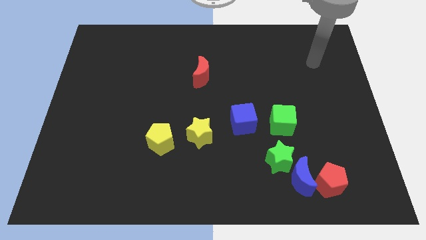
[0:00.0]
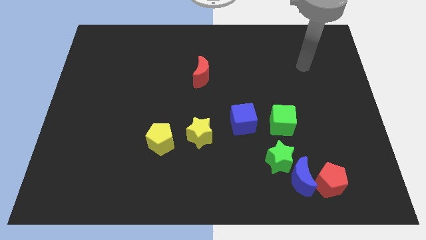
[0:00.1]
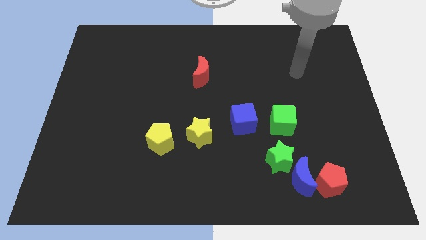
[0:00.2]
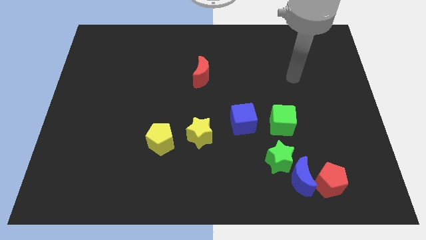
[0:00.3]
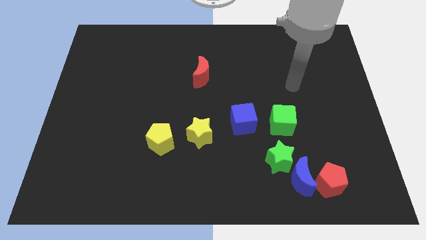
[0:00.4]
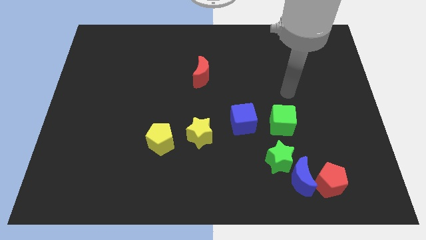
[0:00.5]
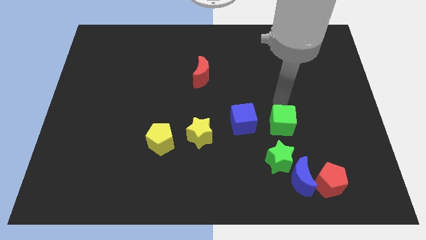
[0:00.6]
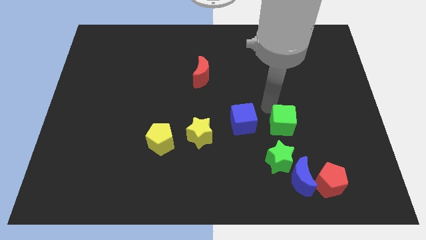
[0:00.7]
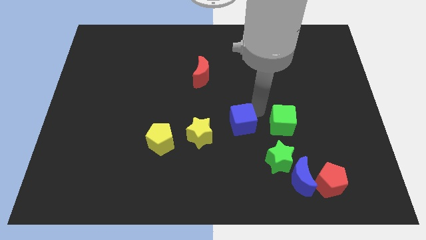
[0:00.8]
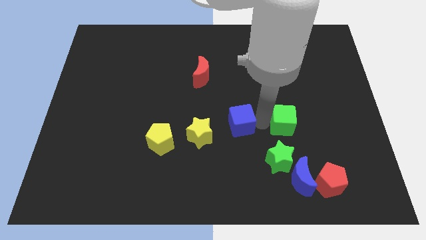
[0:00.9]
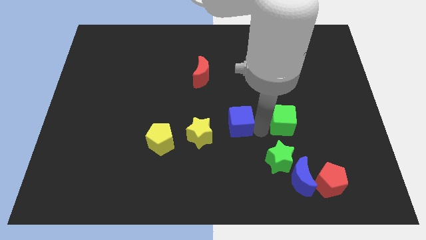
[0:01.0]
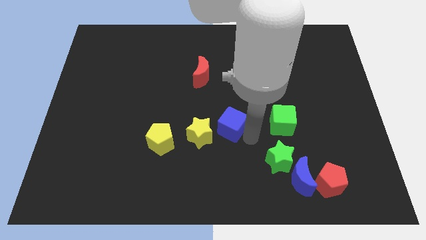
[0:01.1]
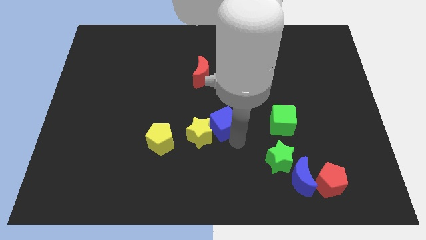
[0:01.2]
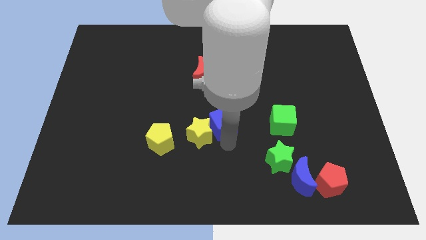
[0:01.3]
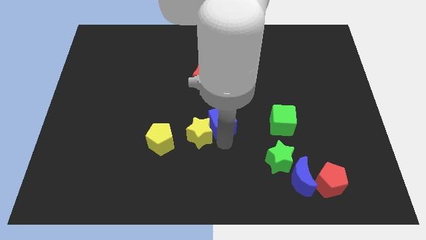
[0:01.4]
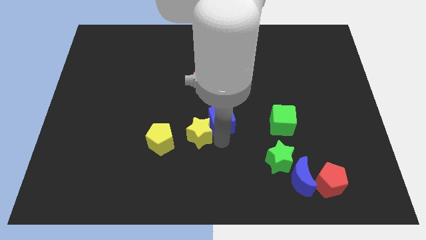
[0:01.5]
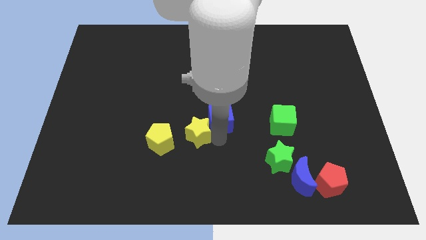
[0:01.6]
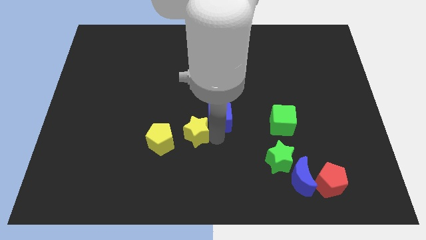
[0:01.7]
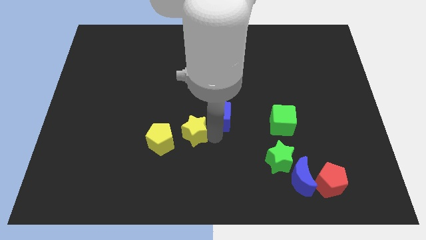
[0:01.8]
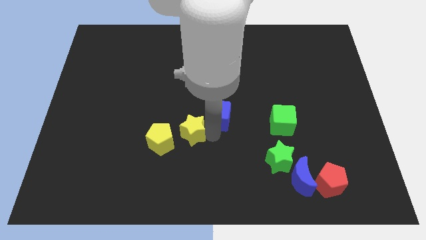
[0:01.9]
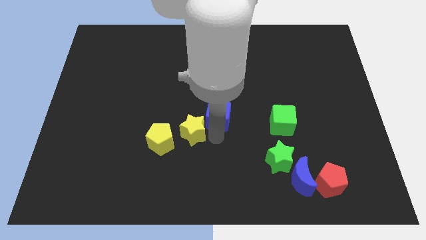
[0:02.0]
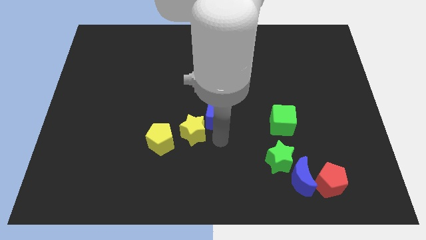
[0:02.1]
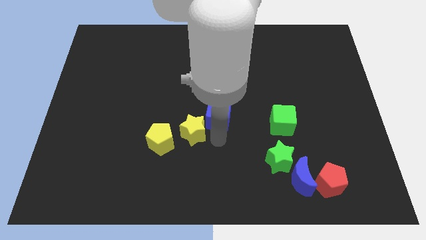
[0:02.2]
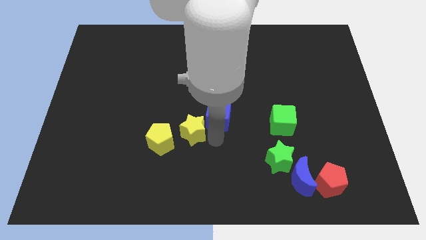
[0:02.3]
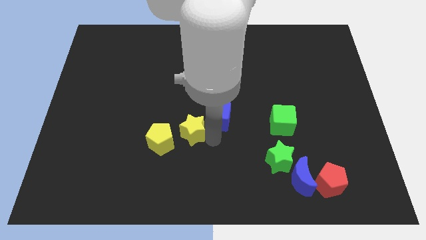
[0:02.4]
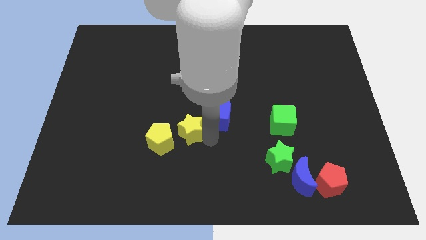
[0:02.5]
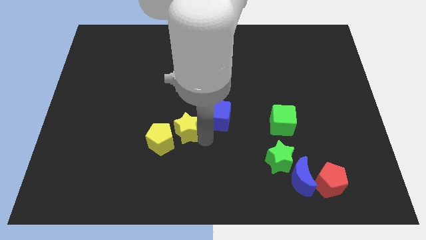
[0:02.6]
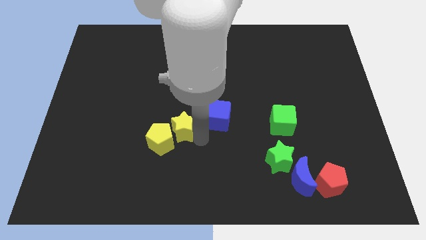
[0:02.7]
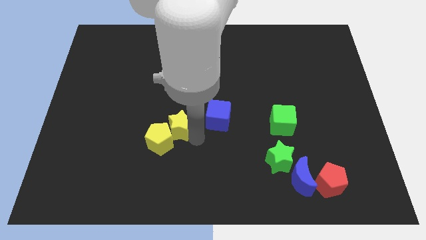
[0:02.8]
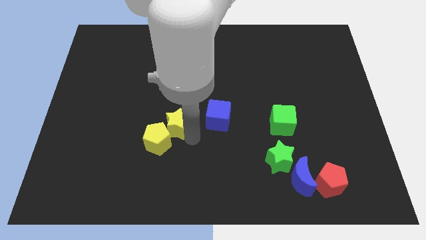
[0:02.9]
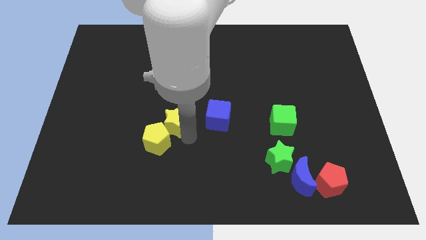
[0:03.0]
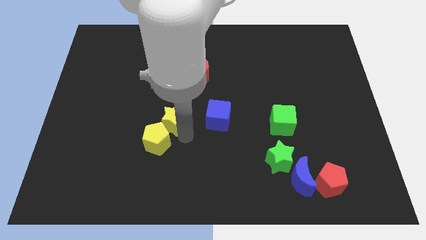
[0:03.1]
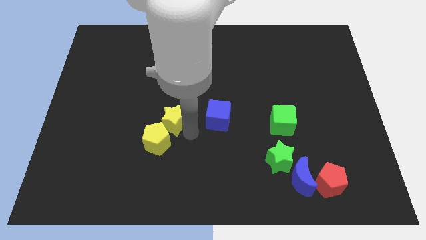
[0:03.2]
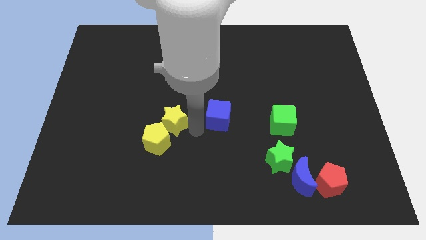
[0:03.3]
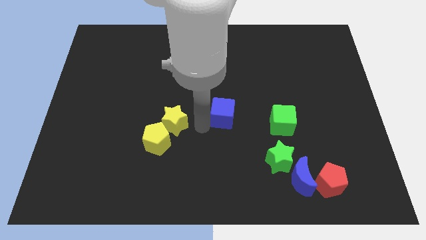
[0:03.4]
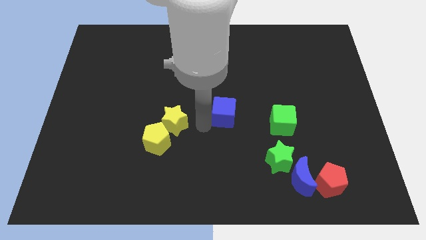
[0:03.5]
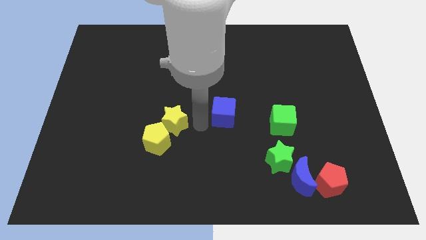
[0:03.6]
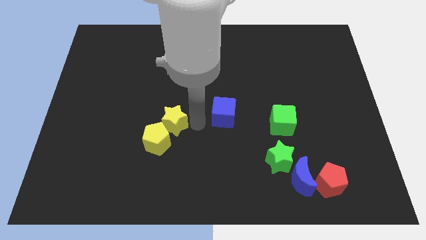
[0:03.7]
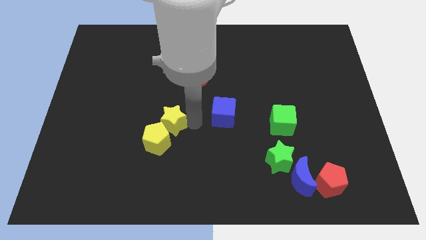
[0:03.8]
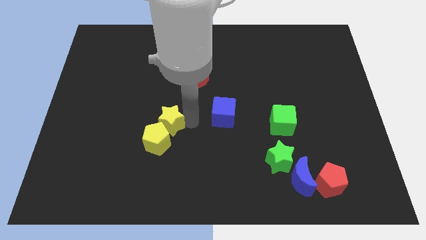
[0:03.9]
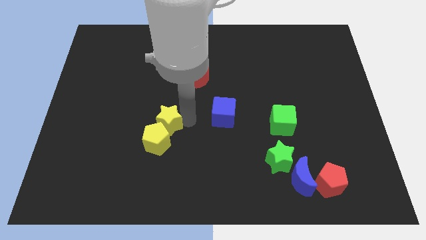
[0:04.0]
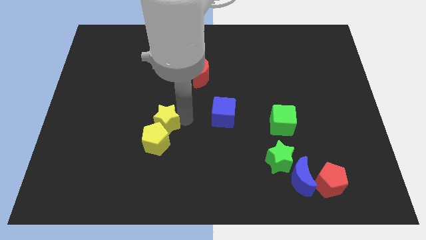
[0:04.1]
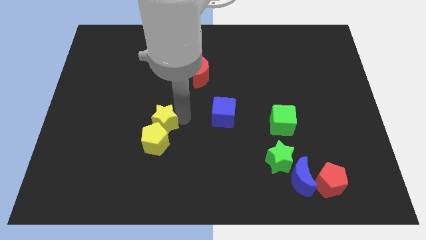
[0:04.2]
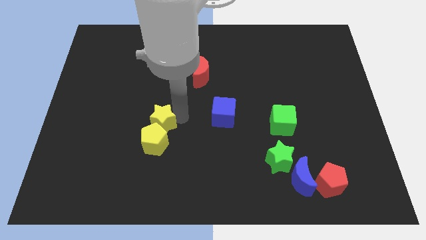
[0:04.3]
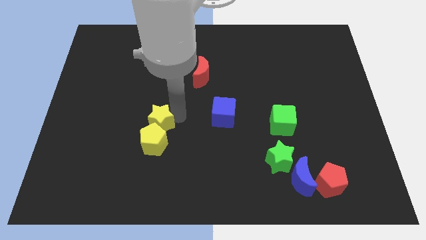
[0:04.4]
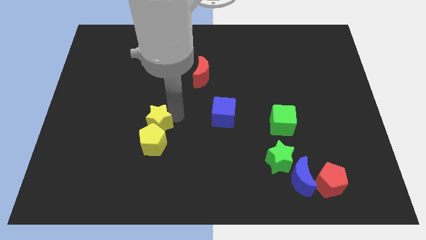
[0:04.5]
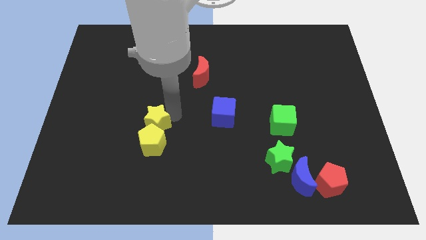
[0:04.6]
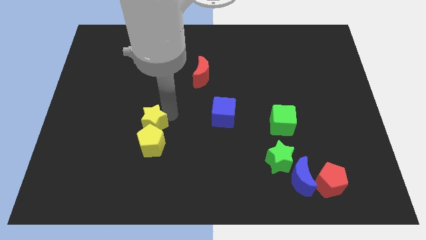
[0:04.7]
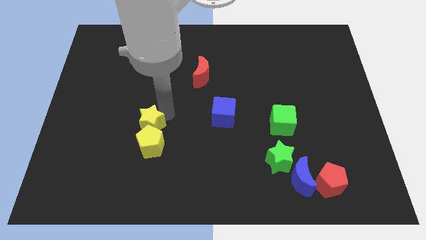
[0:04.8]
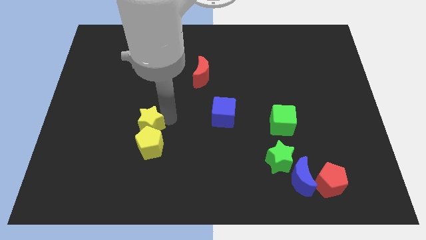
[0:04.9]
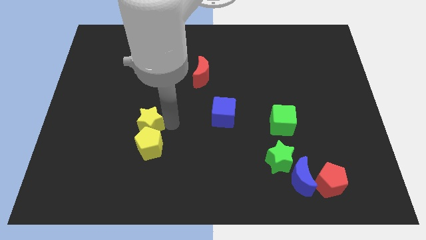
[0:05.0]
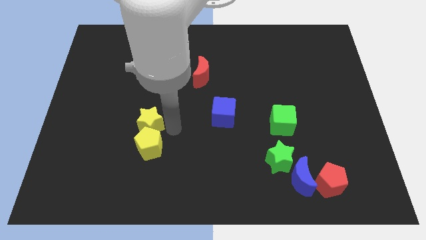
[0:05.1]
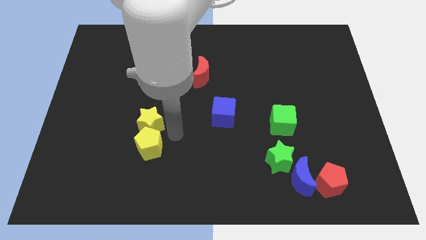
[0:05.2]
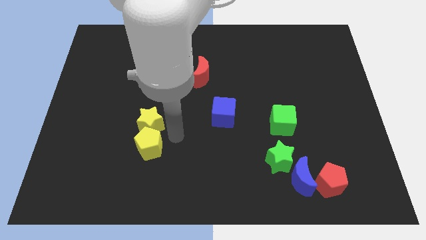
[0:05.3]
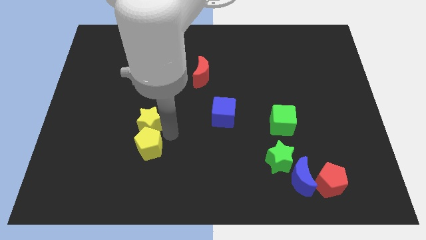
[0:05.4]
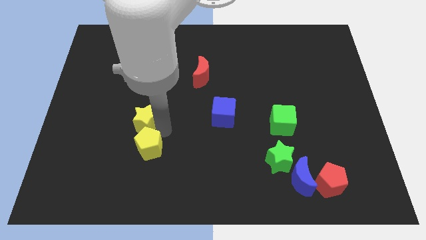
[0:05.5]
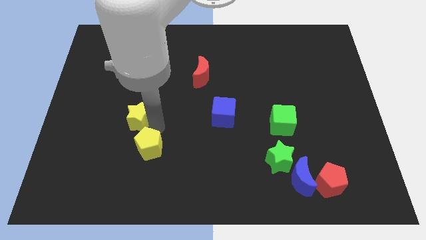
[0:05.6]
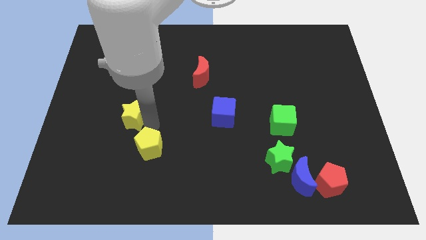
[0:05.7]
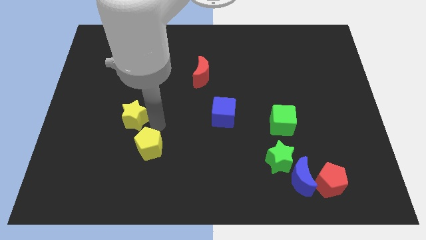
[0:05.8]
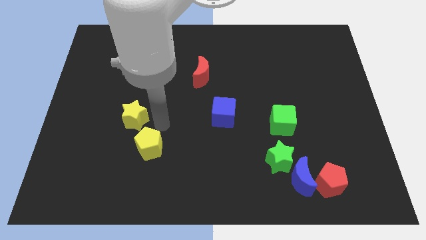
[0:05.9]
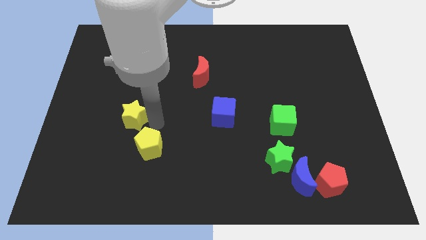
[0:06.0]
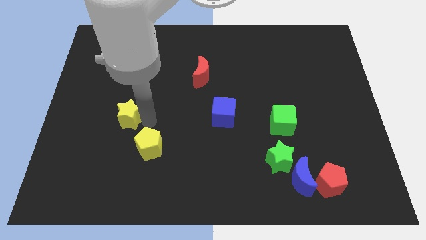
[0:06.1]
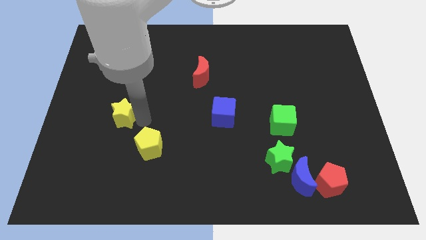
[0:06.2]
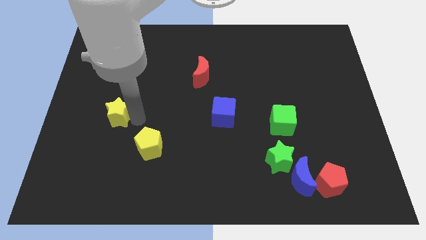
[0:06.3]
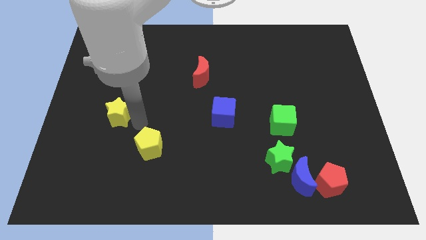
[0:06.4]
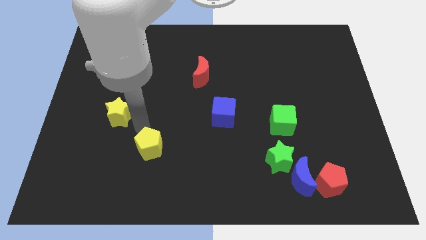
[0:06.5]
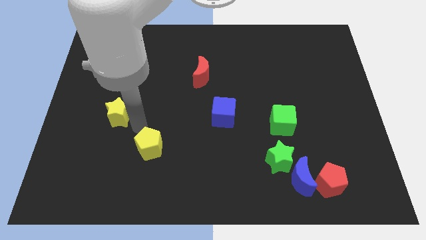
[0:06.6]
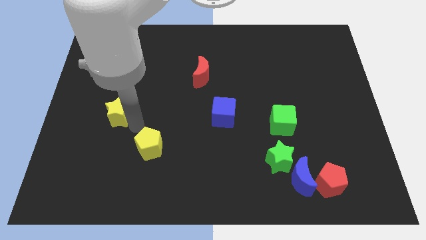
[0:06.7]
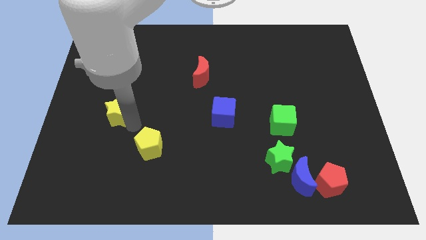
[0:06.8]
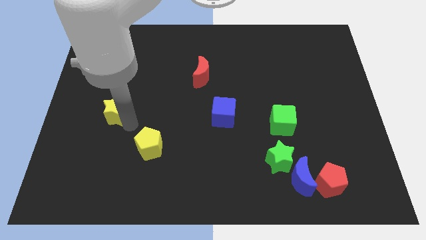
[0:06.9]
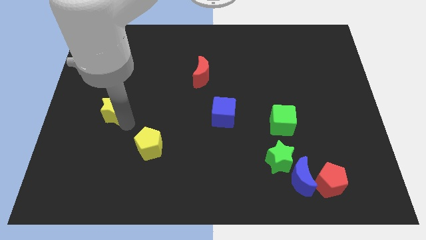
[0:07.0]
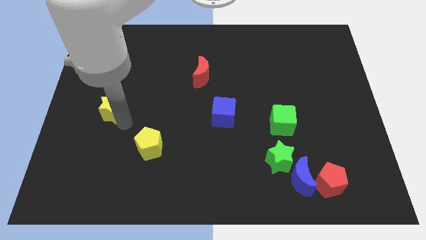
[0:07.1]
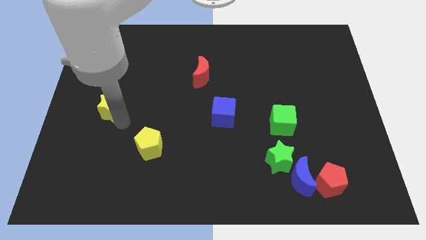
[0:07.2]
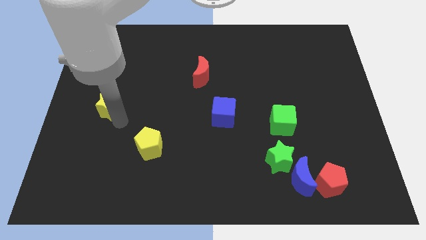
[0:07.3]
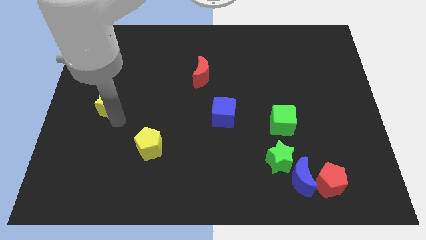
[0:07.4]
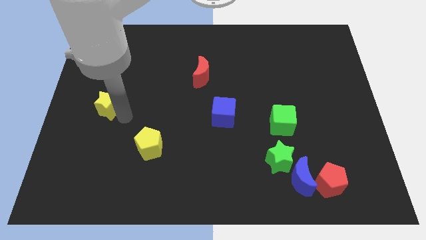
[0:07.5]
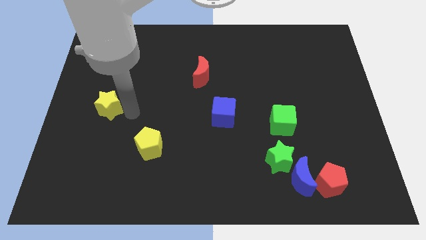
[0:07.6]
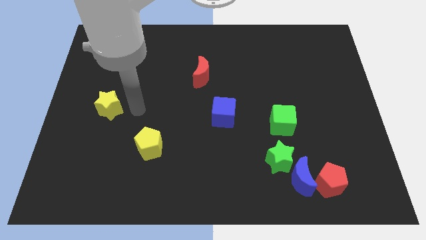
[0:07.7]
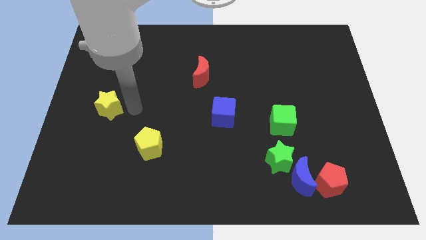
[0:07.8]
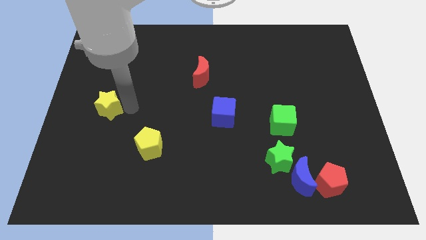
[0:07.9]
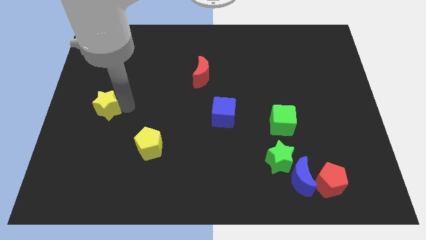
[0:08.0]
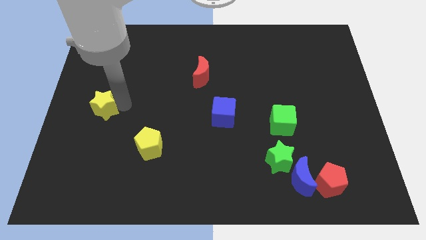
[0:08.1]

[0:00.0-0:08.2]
move the yellow star to the left side
